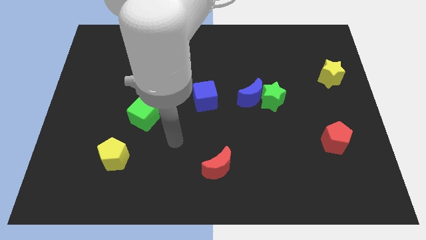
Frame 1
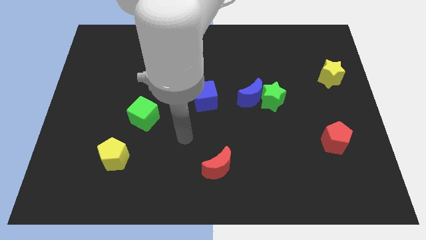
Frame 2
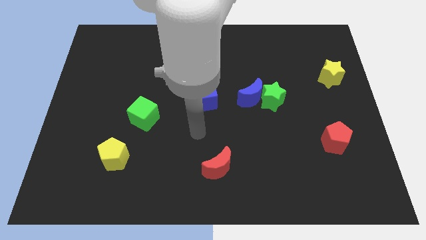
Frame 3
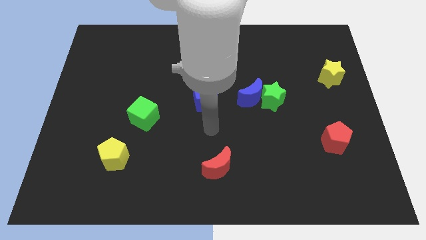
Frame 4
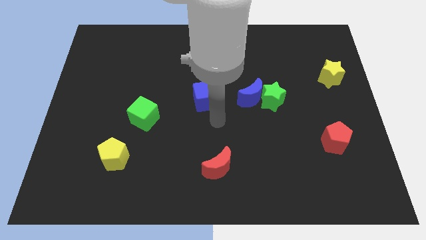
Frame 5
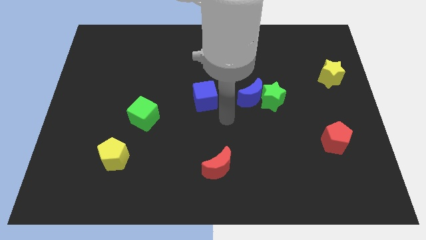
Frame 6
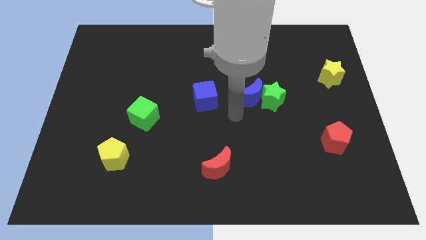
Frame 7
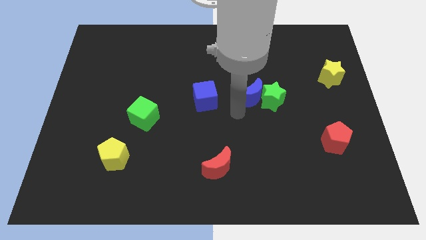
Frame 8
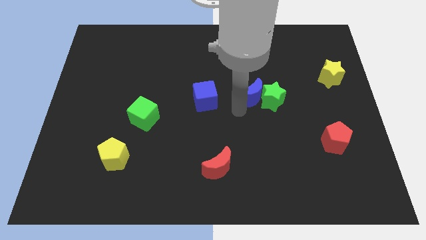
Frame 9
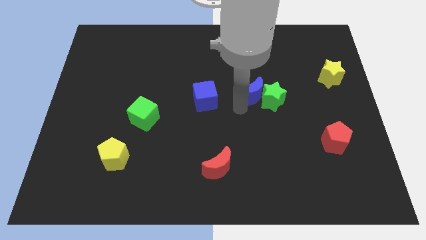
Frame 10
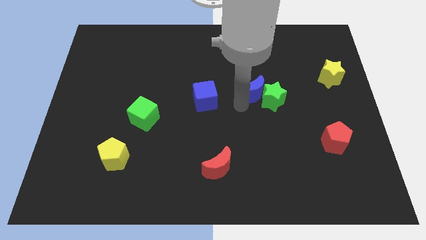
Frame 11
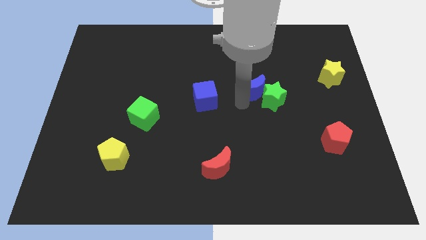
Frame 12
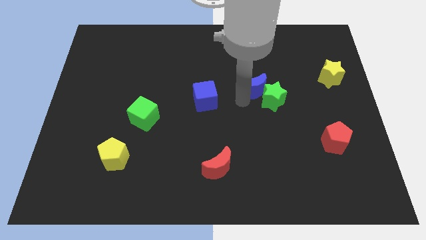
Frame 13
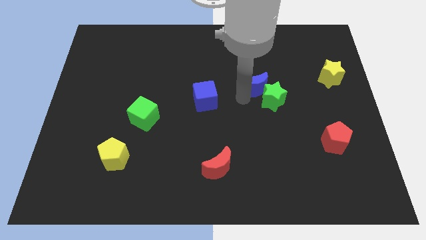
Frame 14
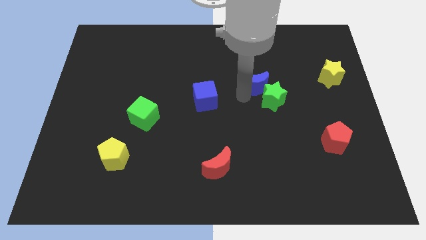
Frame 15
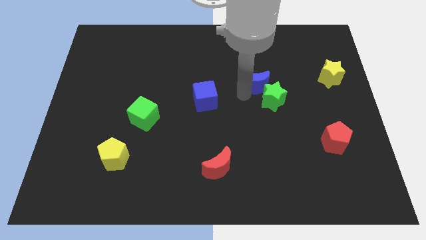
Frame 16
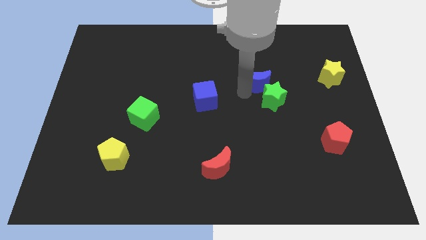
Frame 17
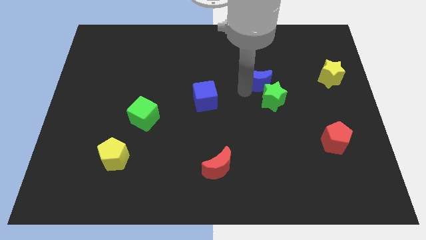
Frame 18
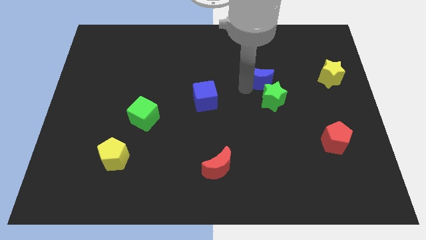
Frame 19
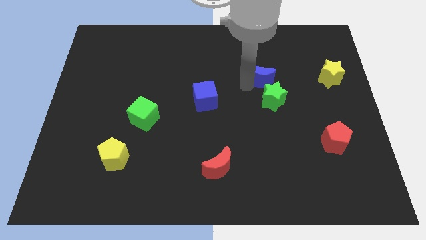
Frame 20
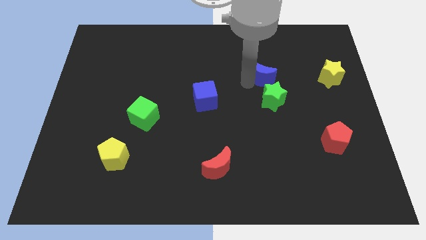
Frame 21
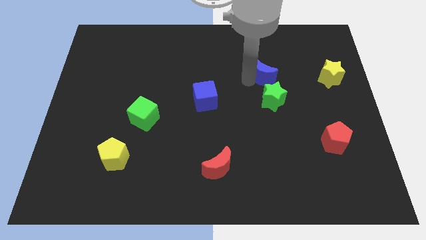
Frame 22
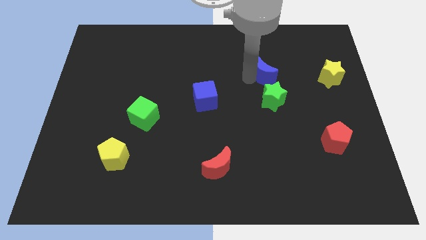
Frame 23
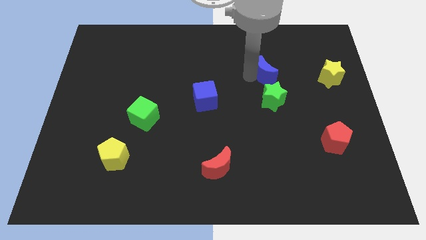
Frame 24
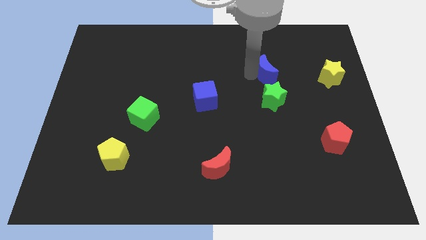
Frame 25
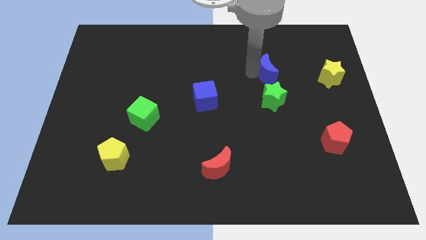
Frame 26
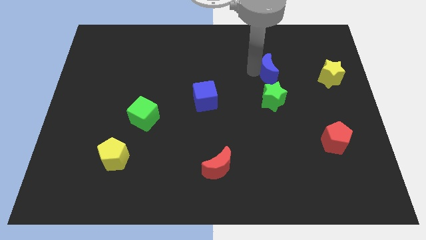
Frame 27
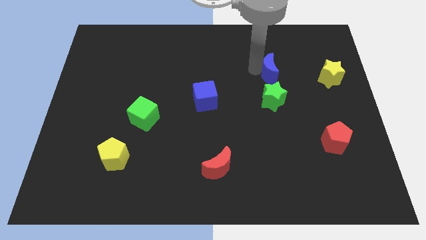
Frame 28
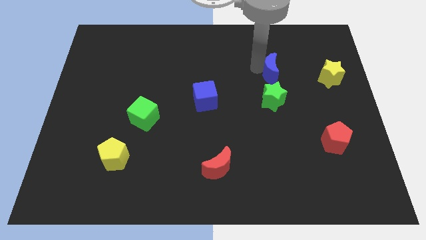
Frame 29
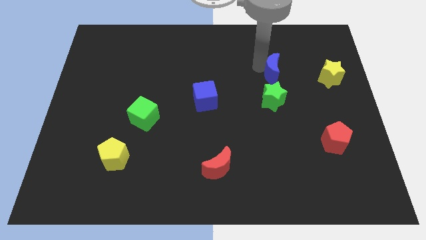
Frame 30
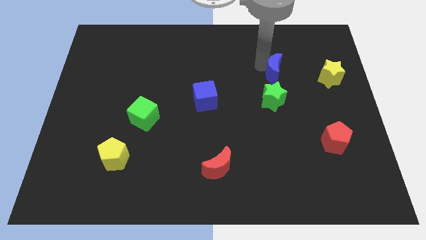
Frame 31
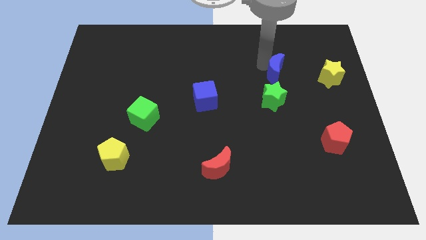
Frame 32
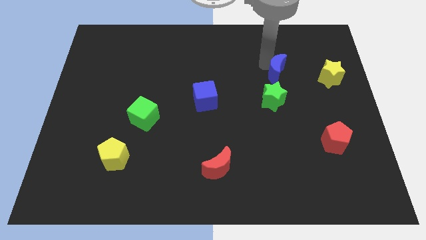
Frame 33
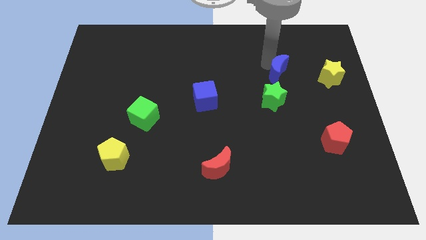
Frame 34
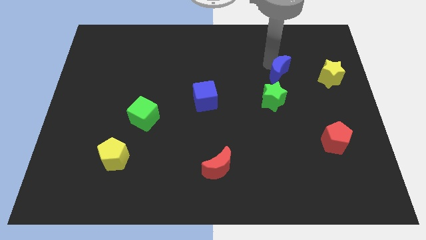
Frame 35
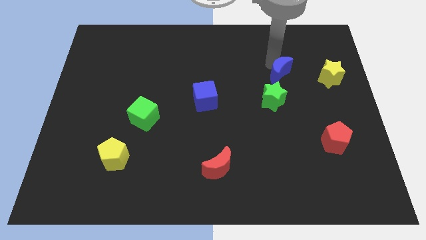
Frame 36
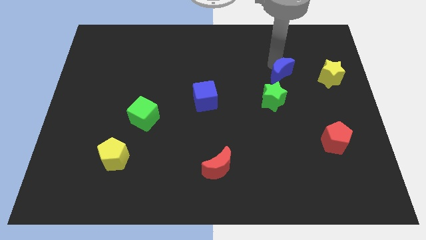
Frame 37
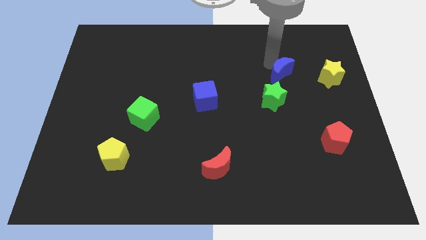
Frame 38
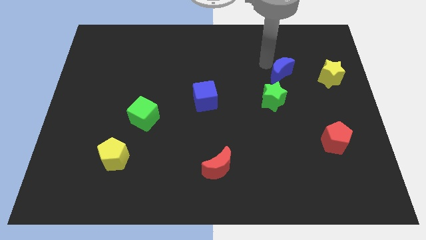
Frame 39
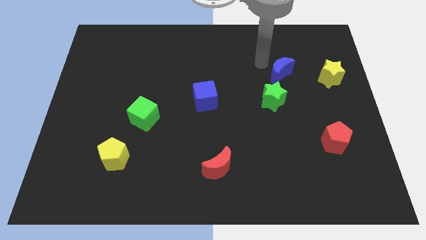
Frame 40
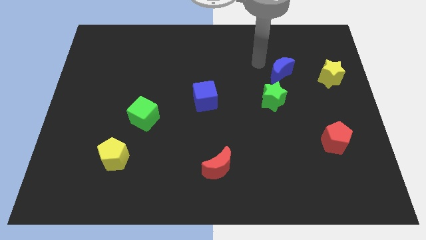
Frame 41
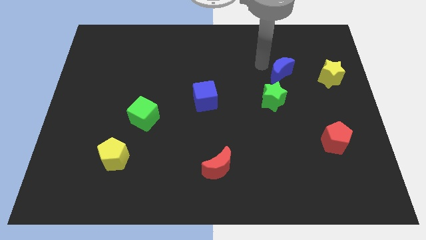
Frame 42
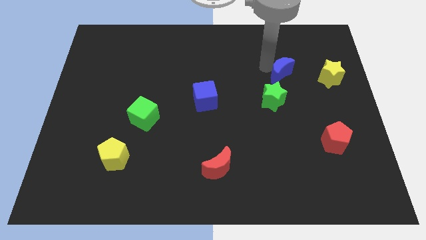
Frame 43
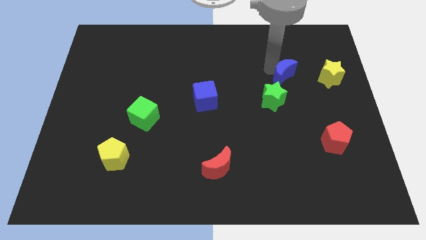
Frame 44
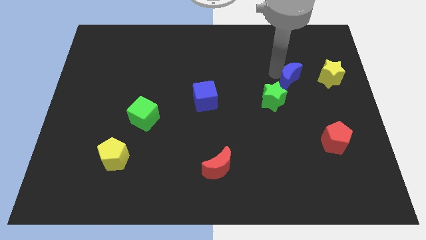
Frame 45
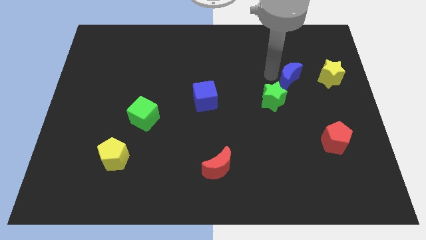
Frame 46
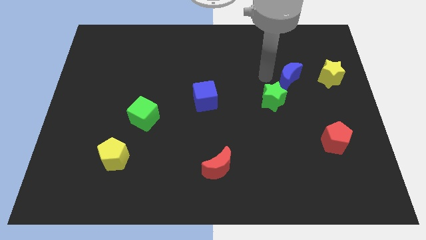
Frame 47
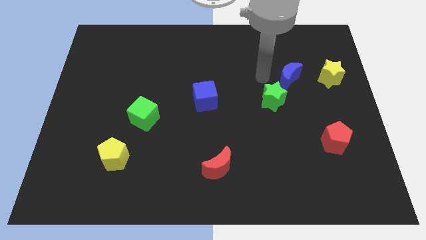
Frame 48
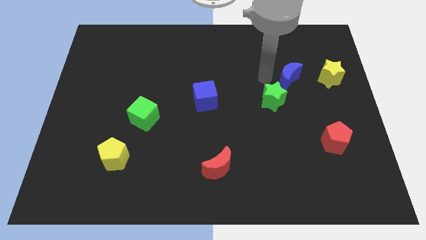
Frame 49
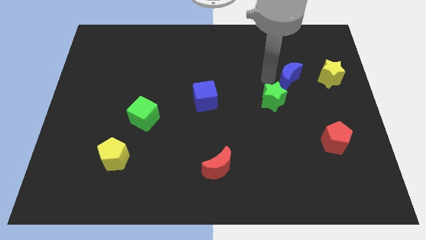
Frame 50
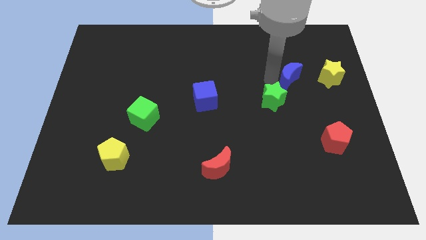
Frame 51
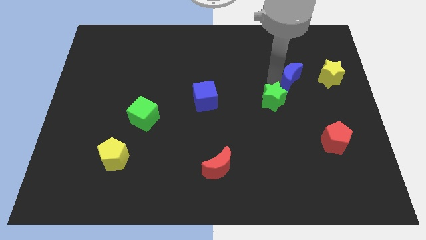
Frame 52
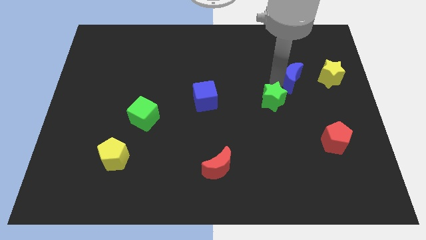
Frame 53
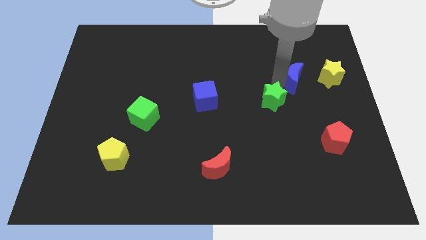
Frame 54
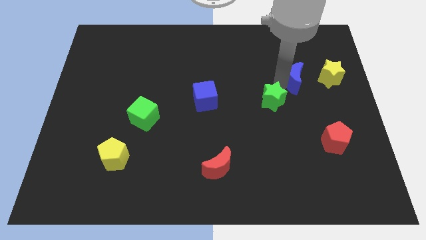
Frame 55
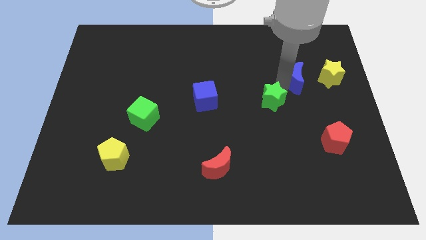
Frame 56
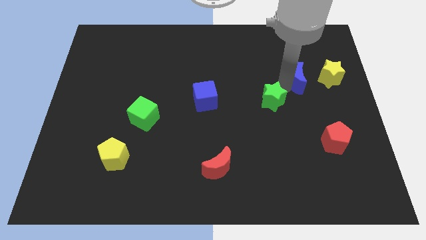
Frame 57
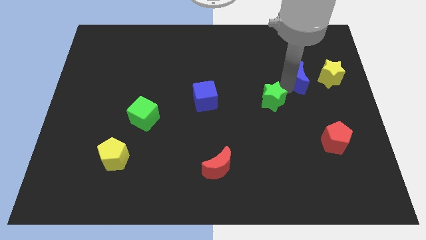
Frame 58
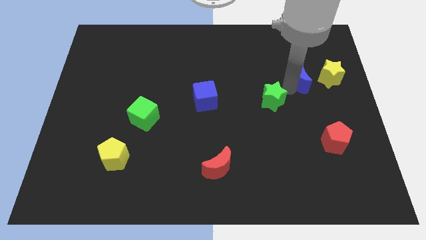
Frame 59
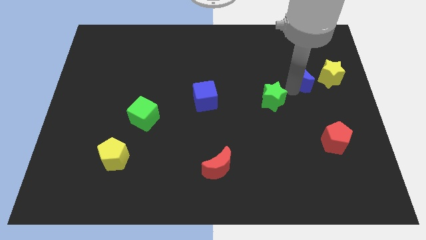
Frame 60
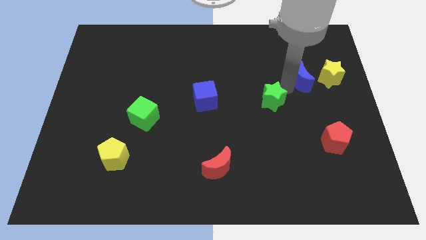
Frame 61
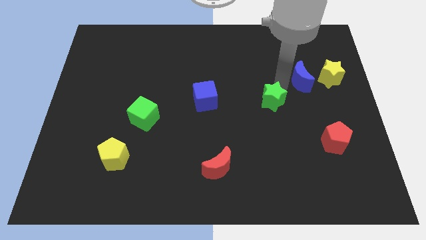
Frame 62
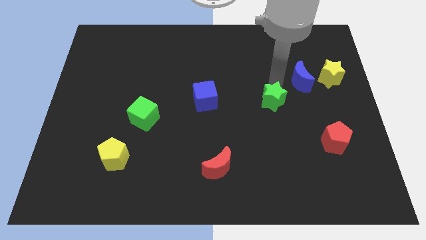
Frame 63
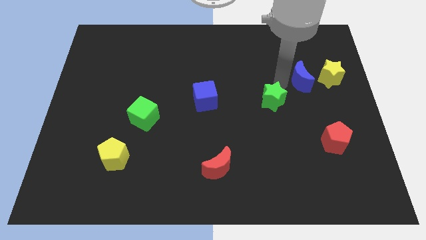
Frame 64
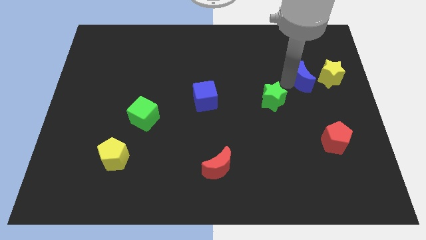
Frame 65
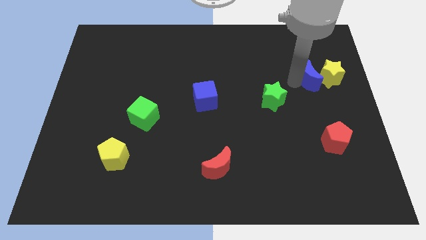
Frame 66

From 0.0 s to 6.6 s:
put the blue moon to the yellow star

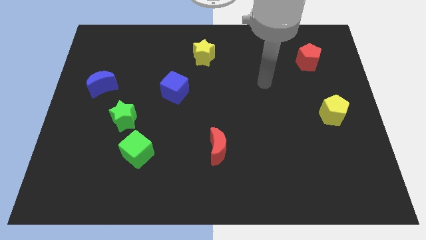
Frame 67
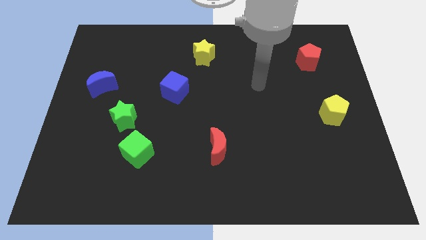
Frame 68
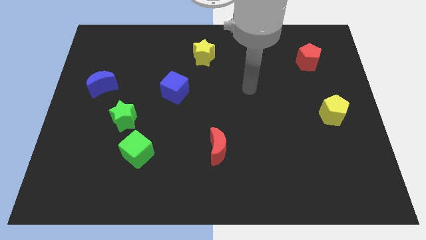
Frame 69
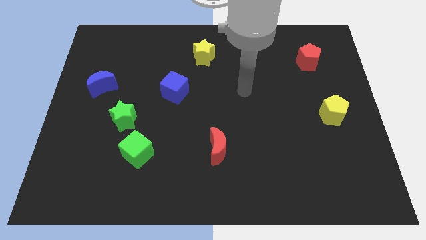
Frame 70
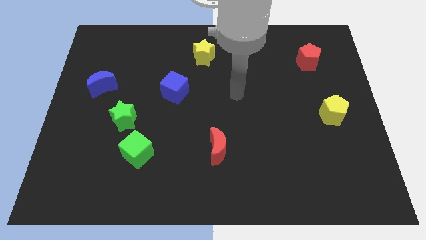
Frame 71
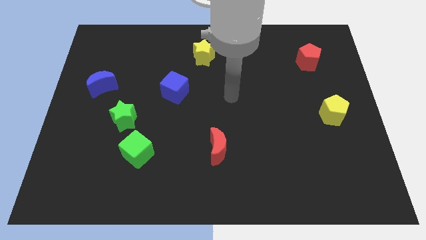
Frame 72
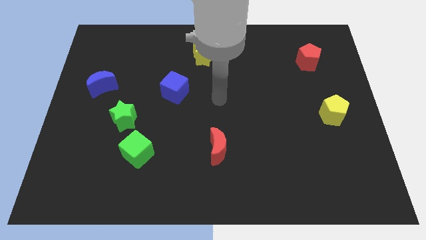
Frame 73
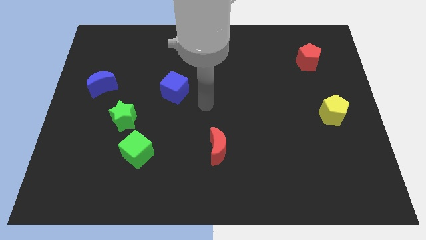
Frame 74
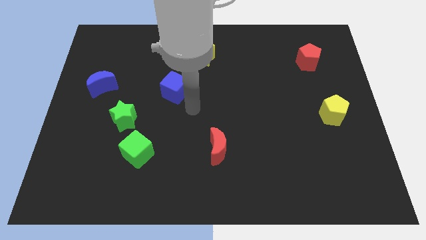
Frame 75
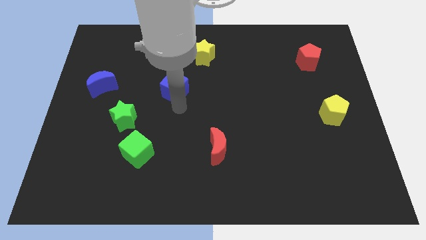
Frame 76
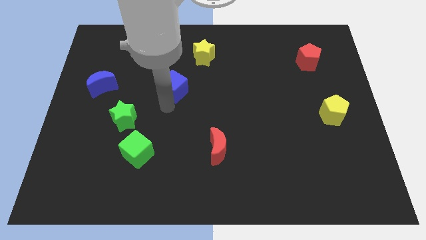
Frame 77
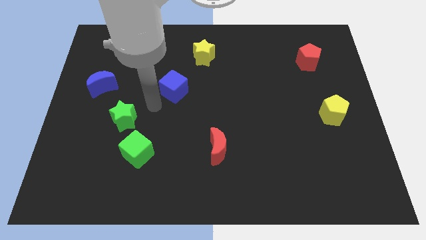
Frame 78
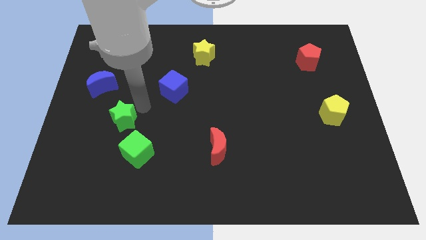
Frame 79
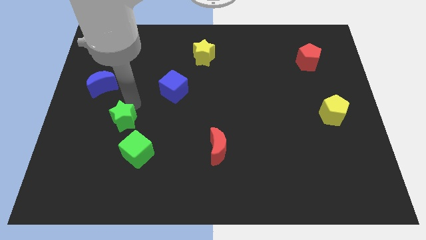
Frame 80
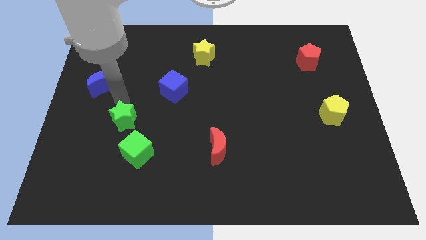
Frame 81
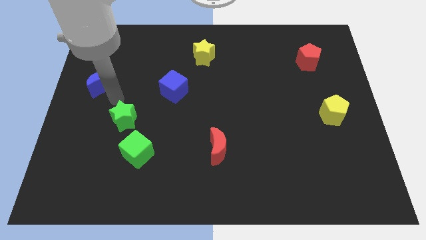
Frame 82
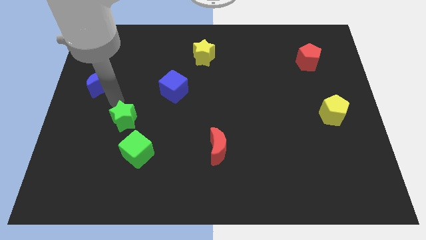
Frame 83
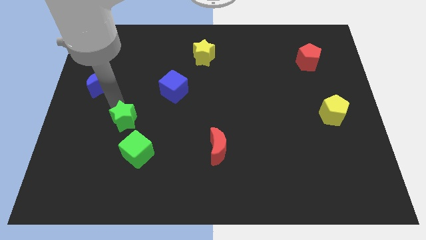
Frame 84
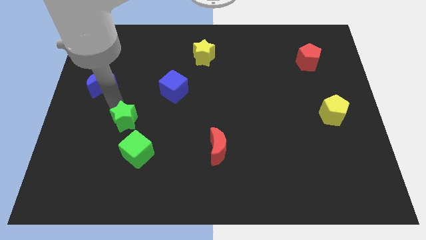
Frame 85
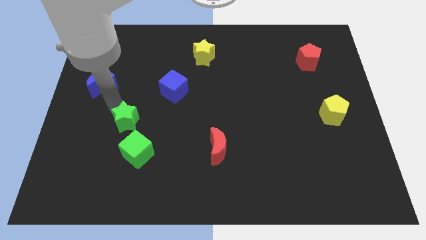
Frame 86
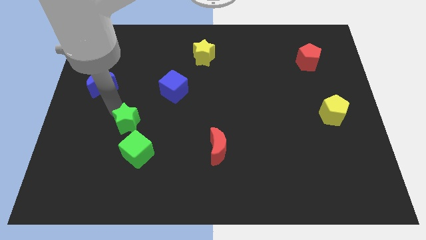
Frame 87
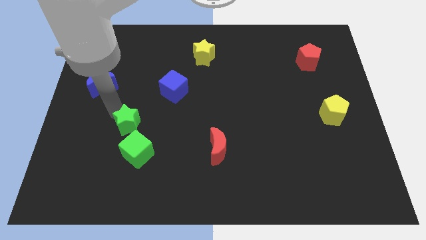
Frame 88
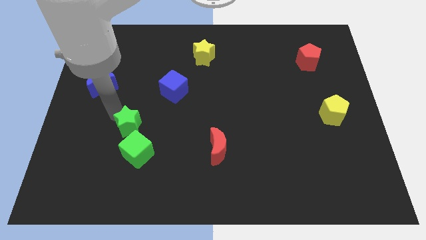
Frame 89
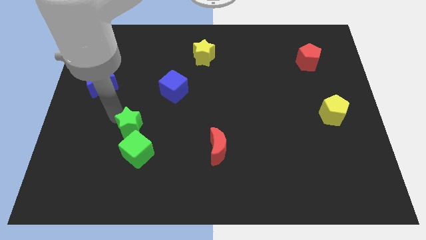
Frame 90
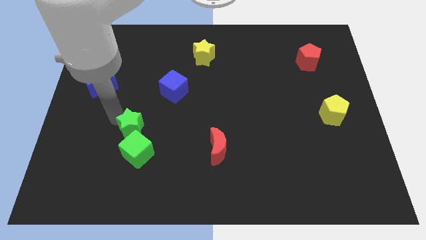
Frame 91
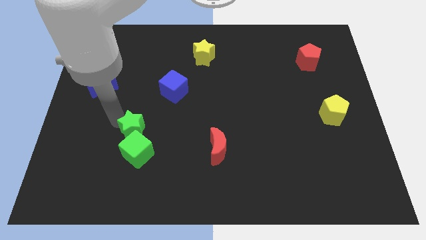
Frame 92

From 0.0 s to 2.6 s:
push the green star towards the green cube
